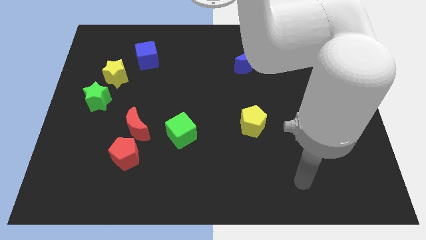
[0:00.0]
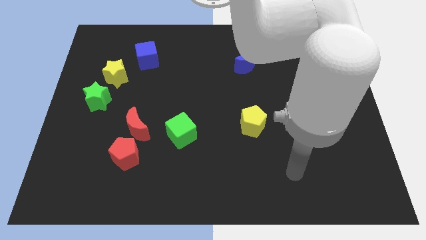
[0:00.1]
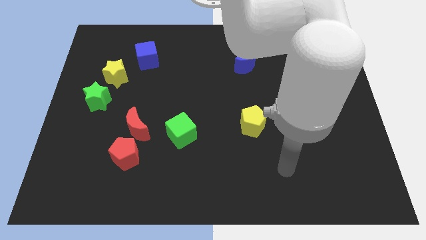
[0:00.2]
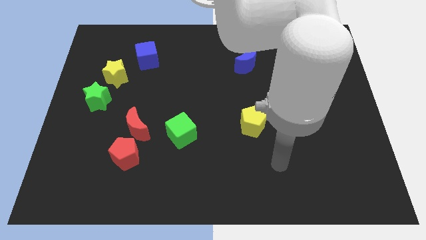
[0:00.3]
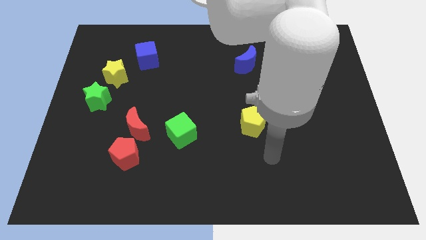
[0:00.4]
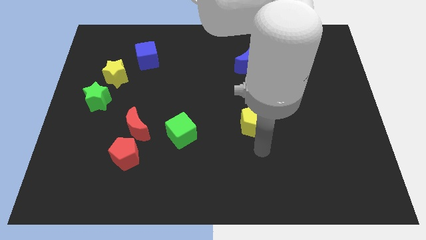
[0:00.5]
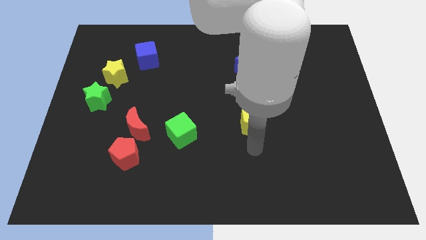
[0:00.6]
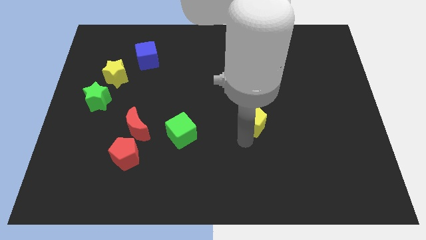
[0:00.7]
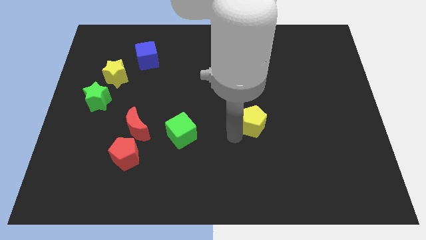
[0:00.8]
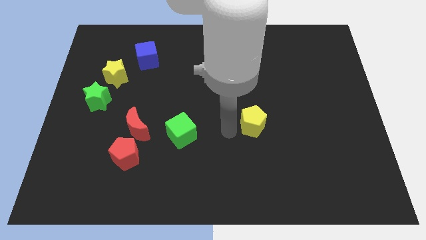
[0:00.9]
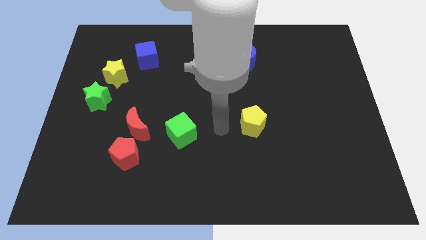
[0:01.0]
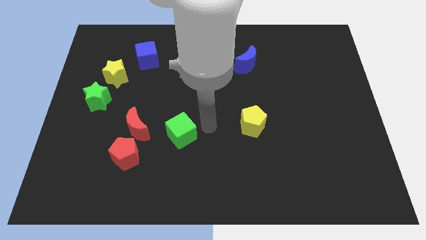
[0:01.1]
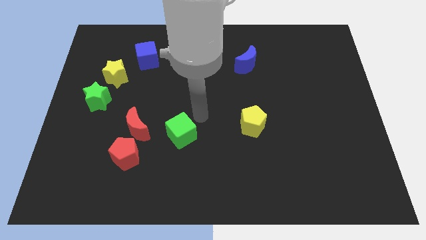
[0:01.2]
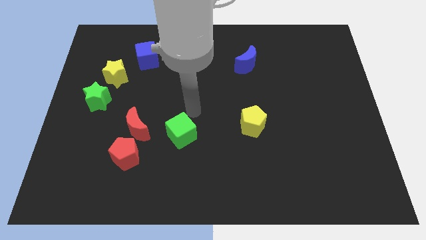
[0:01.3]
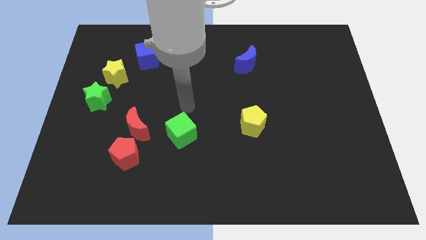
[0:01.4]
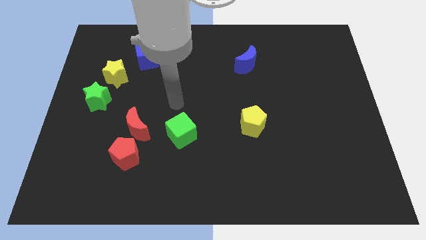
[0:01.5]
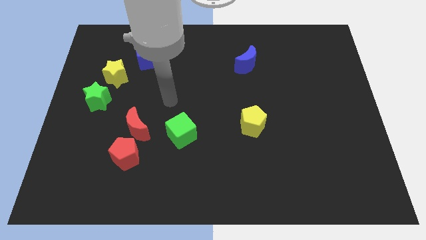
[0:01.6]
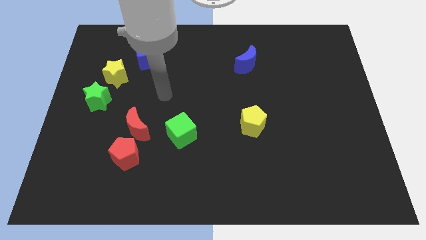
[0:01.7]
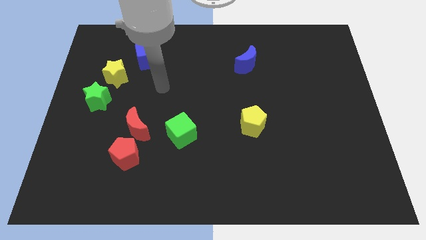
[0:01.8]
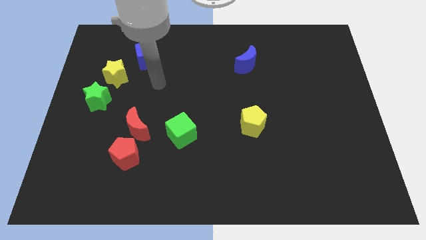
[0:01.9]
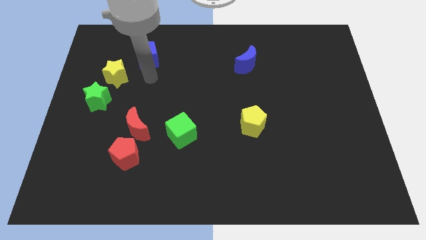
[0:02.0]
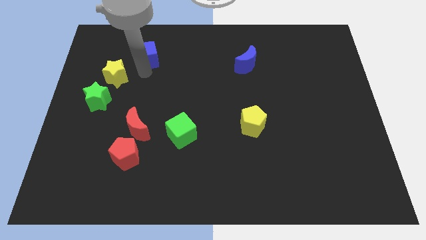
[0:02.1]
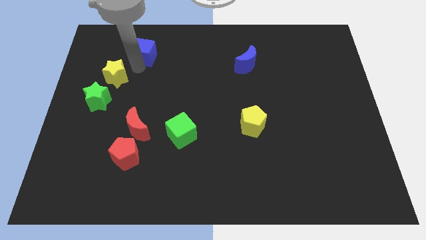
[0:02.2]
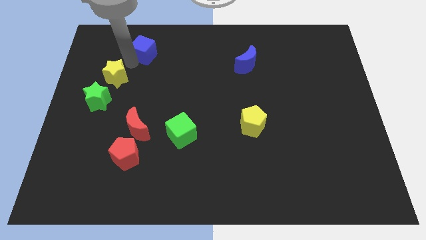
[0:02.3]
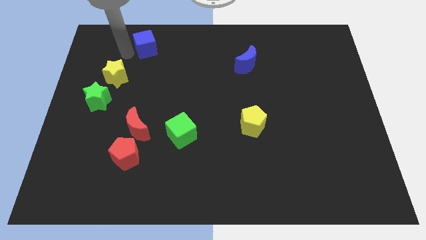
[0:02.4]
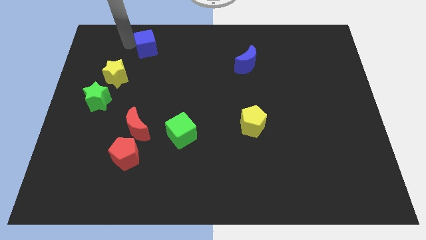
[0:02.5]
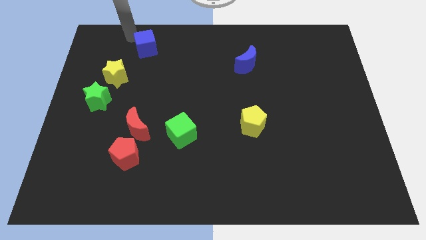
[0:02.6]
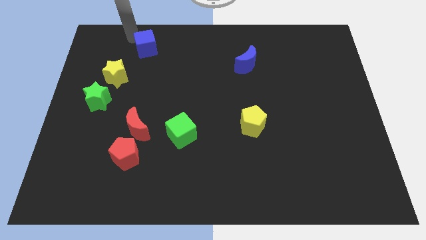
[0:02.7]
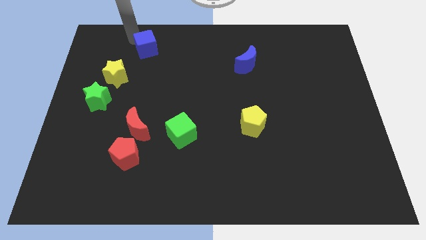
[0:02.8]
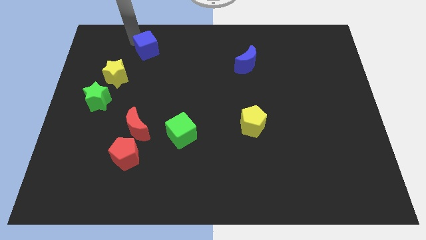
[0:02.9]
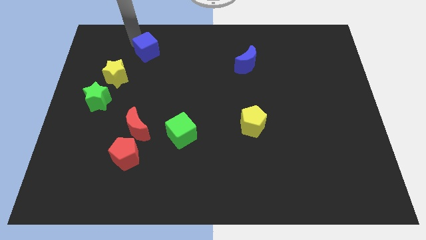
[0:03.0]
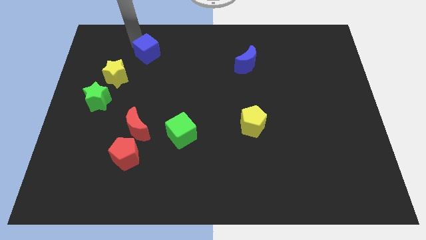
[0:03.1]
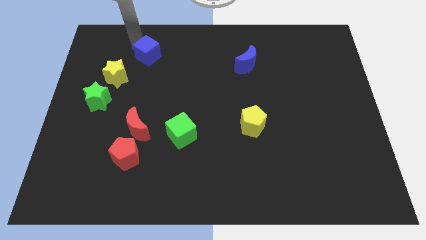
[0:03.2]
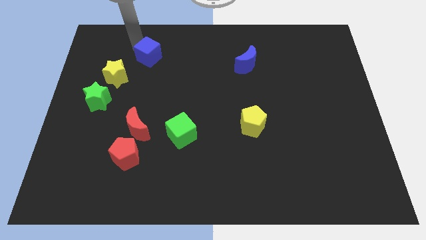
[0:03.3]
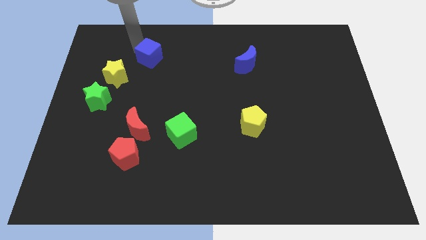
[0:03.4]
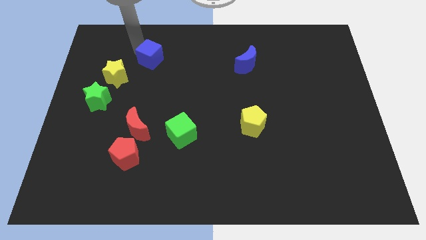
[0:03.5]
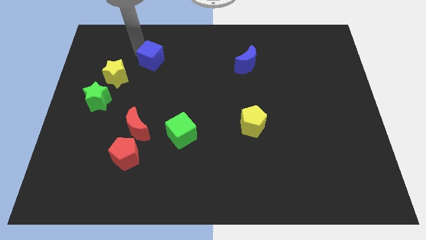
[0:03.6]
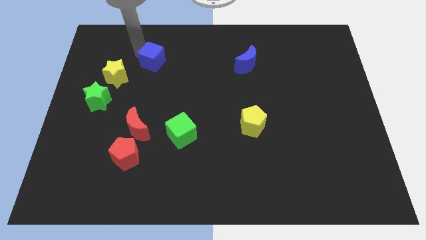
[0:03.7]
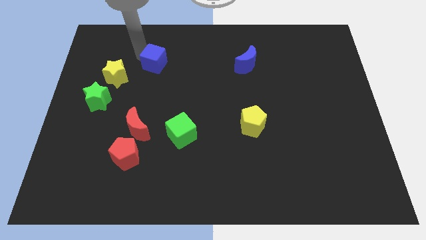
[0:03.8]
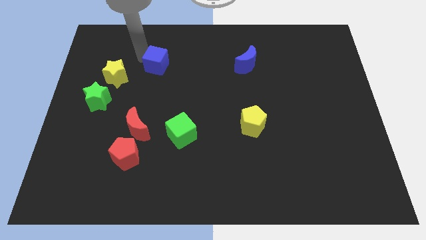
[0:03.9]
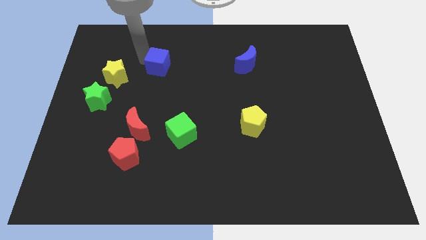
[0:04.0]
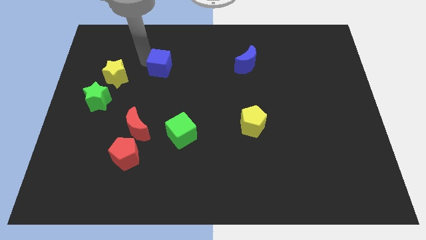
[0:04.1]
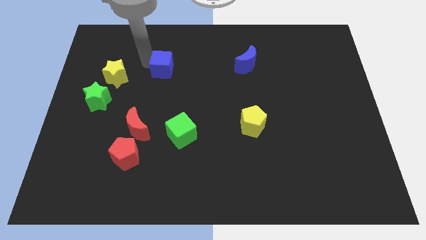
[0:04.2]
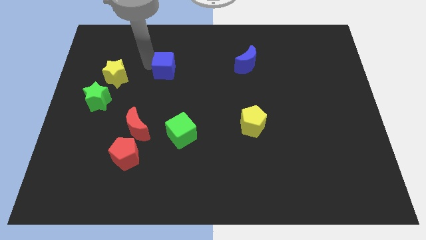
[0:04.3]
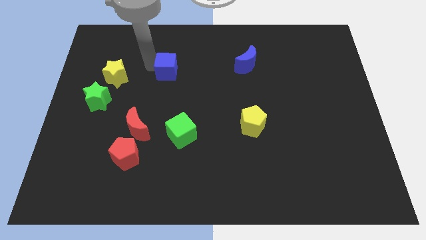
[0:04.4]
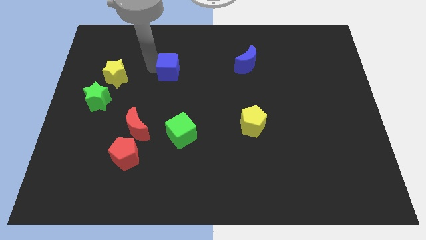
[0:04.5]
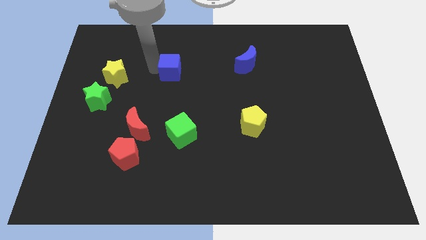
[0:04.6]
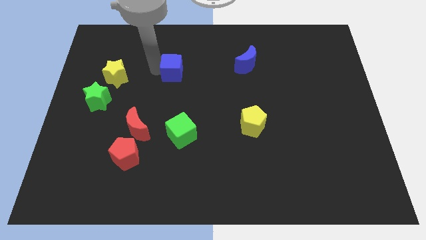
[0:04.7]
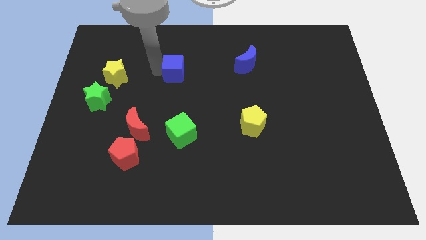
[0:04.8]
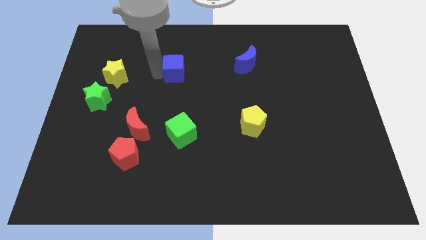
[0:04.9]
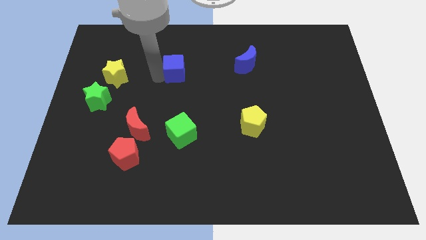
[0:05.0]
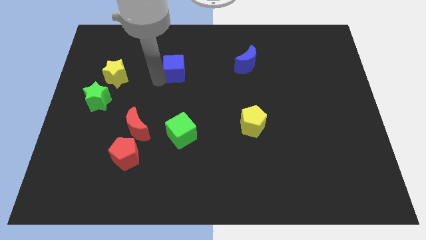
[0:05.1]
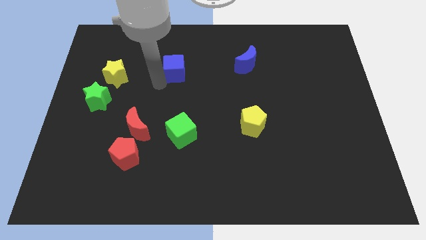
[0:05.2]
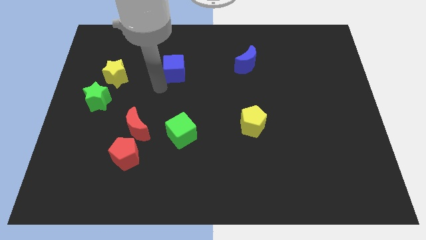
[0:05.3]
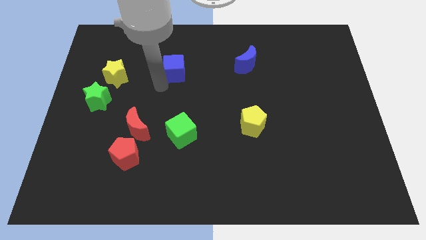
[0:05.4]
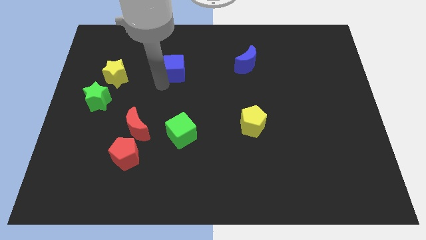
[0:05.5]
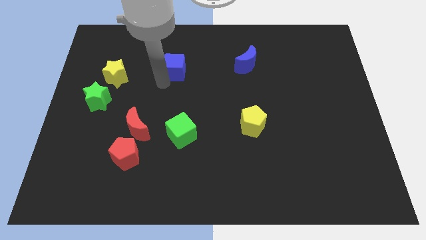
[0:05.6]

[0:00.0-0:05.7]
push the blue cube right a bit

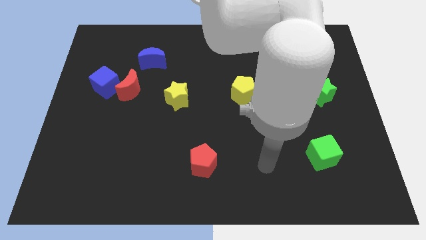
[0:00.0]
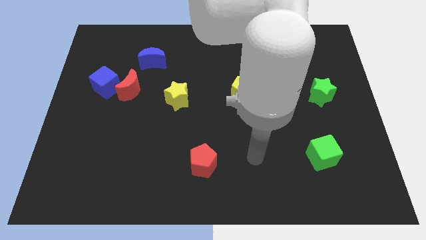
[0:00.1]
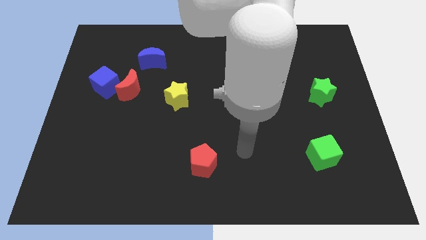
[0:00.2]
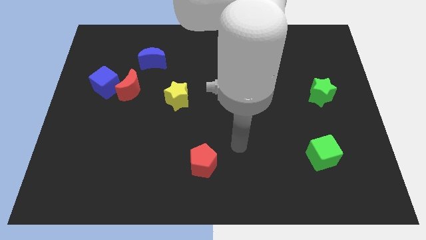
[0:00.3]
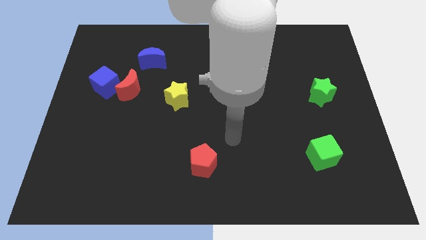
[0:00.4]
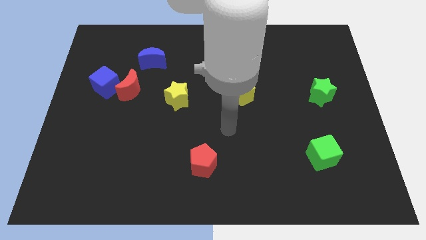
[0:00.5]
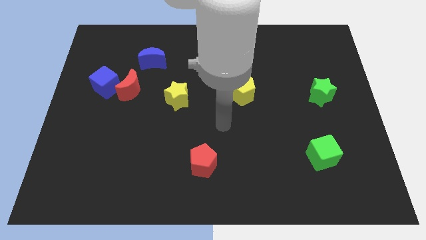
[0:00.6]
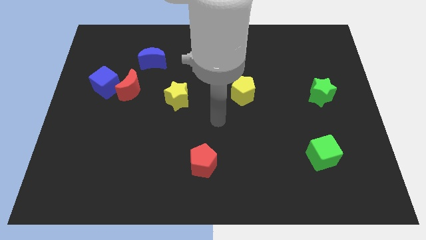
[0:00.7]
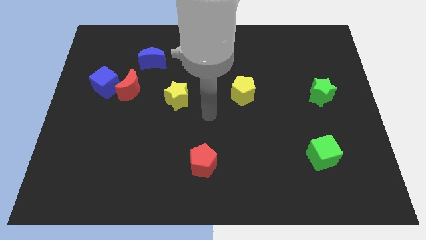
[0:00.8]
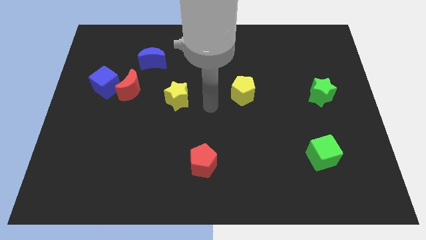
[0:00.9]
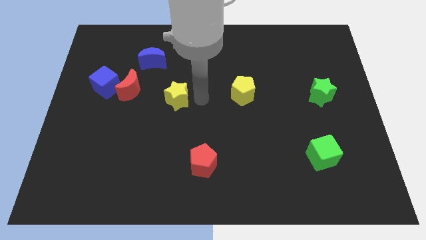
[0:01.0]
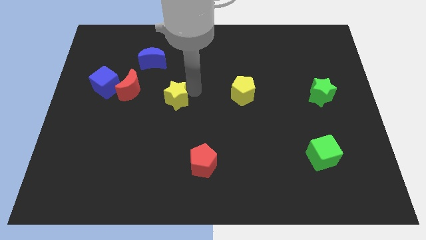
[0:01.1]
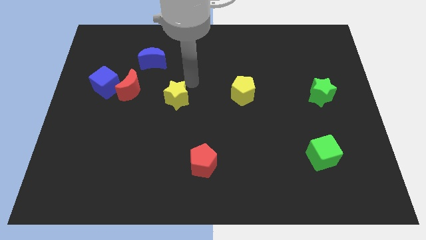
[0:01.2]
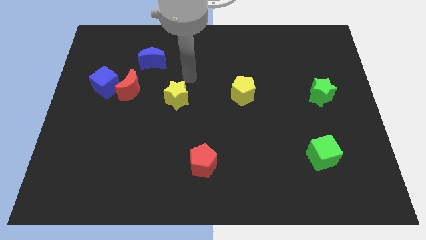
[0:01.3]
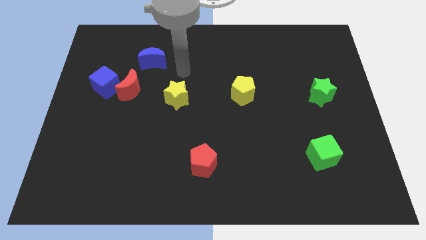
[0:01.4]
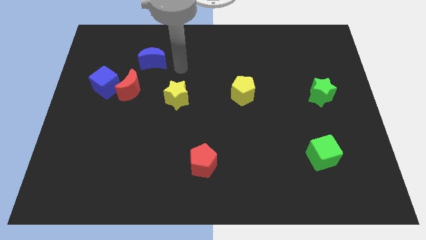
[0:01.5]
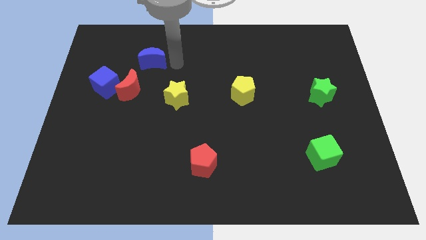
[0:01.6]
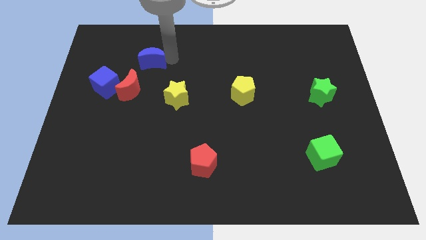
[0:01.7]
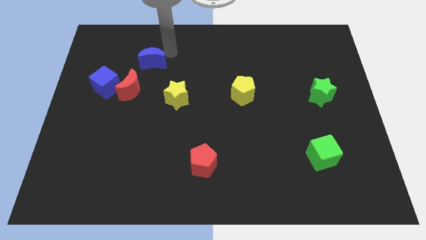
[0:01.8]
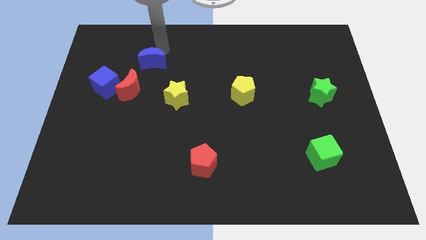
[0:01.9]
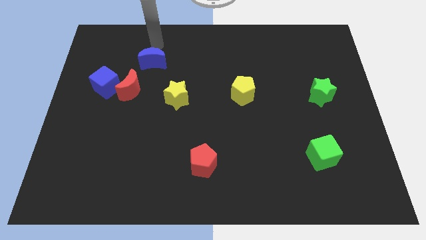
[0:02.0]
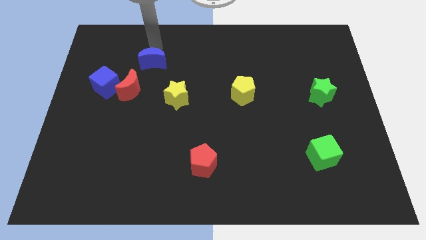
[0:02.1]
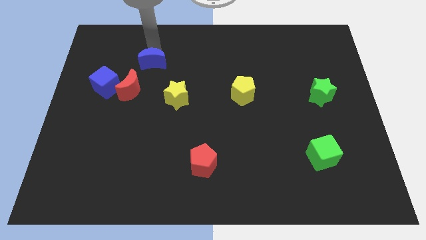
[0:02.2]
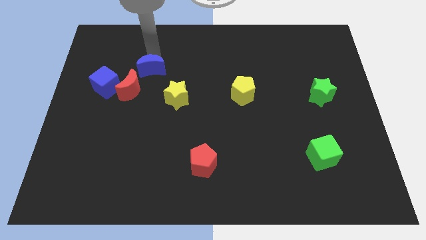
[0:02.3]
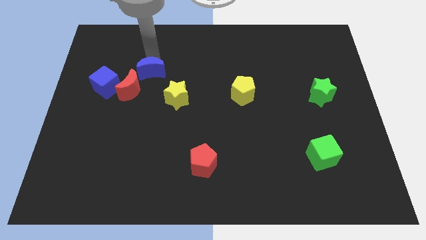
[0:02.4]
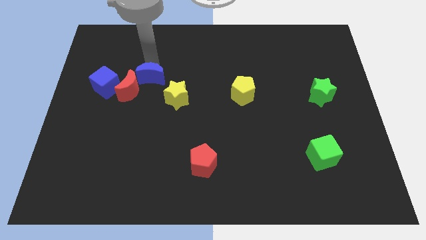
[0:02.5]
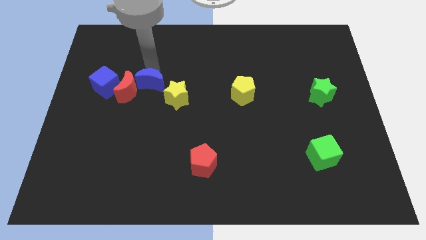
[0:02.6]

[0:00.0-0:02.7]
slide the blue moon somewhat down
